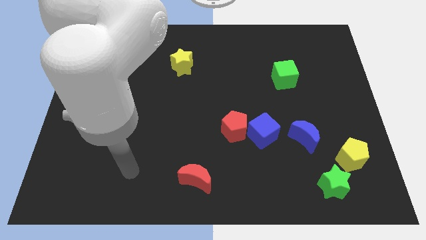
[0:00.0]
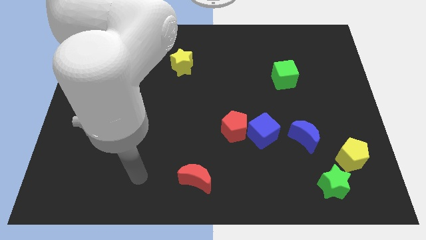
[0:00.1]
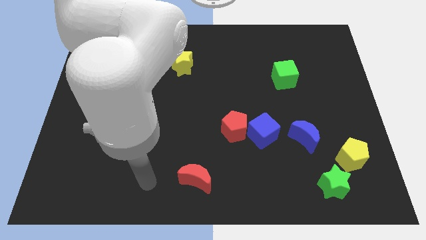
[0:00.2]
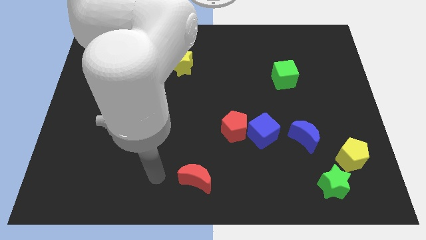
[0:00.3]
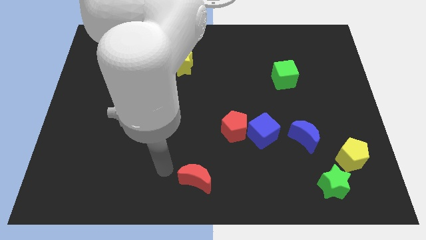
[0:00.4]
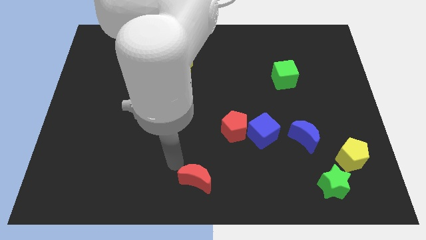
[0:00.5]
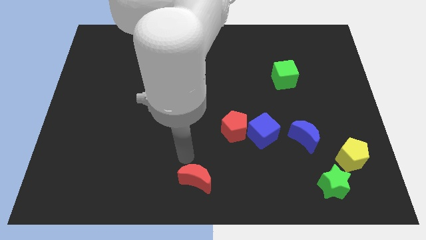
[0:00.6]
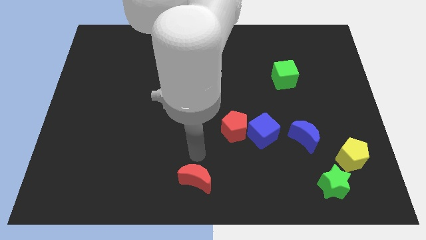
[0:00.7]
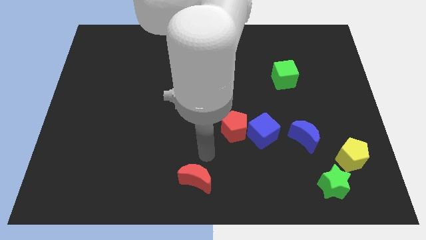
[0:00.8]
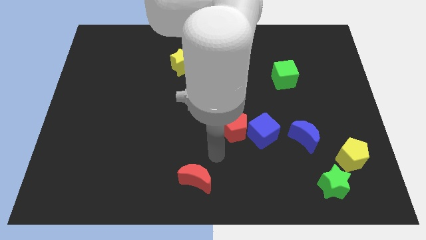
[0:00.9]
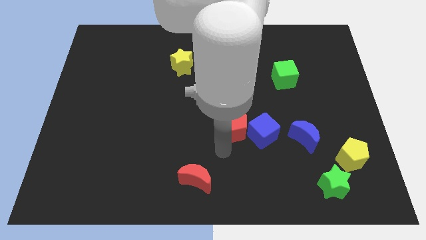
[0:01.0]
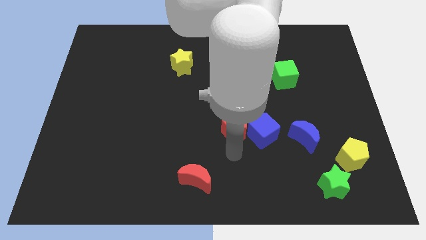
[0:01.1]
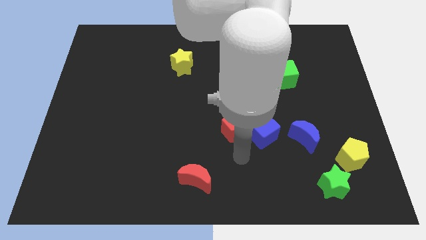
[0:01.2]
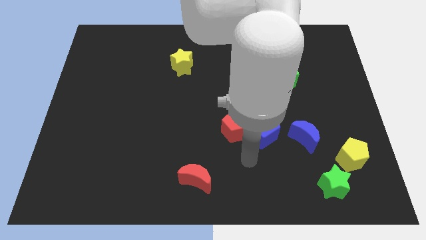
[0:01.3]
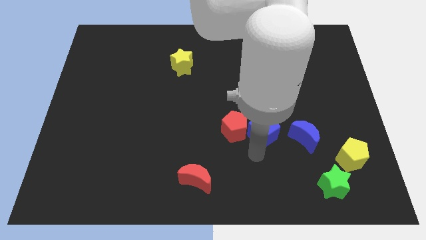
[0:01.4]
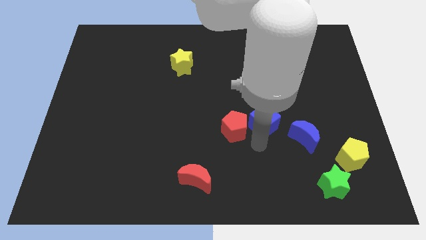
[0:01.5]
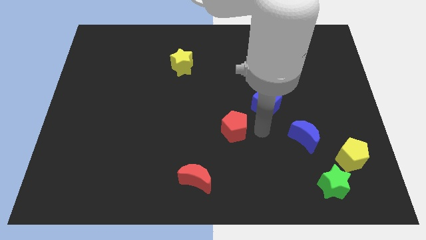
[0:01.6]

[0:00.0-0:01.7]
pull the red pentagon apart from the blue cube

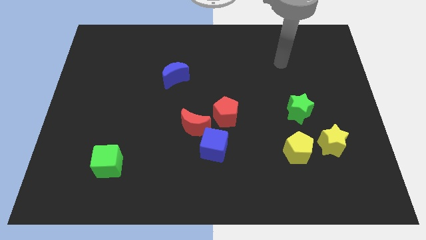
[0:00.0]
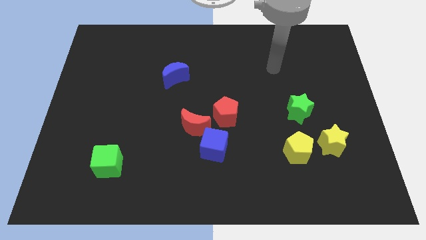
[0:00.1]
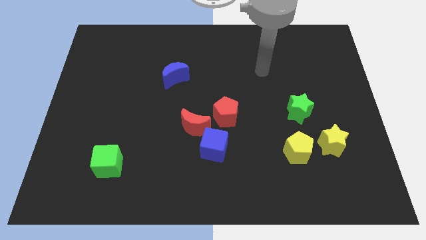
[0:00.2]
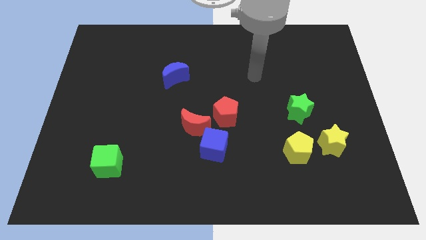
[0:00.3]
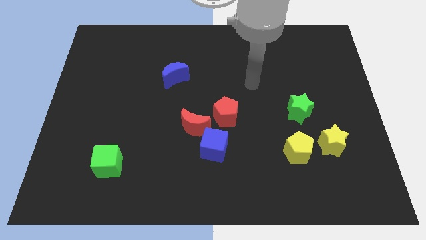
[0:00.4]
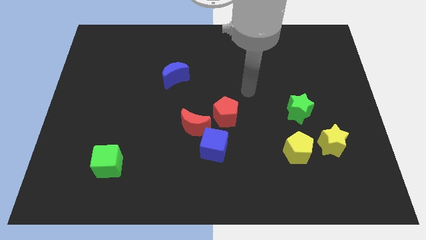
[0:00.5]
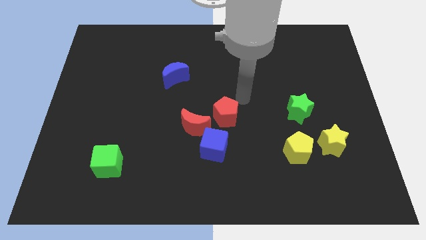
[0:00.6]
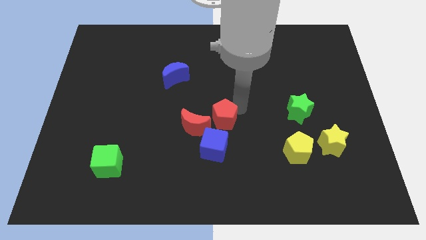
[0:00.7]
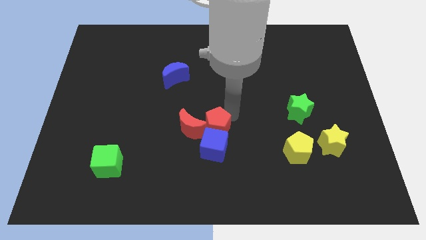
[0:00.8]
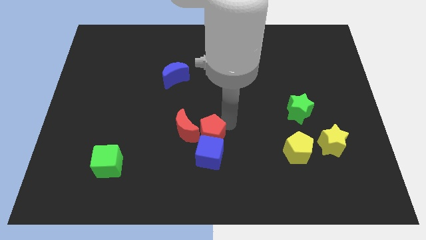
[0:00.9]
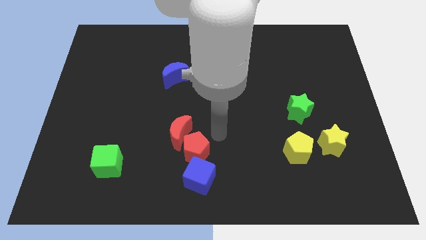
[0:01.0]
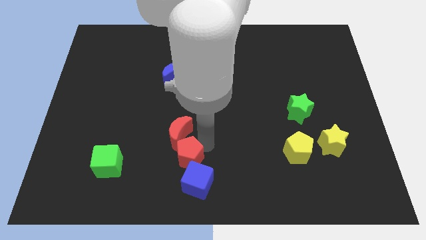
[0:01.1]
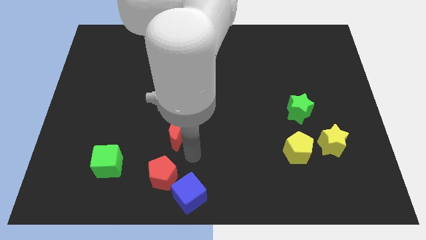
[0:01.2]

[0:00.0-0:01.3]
pull the red moon apart from the blue cube and red pentagon

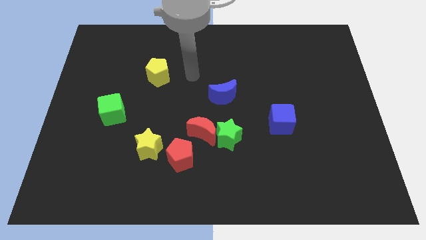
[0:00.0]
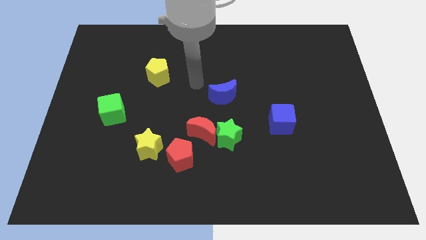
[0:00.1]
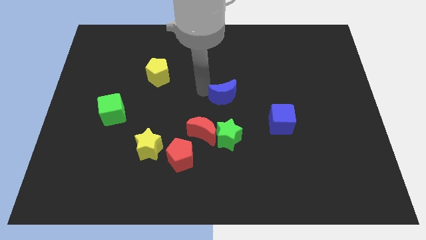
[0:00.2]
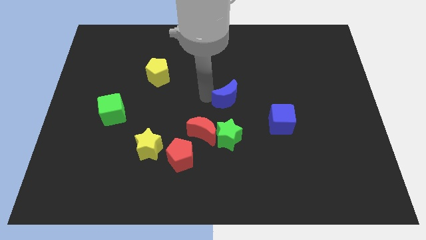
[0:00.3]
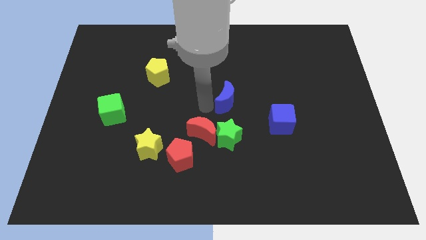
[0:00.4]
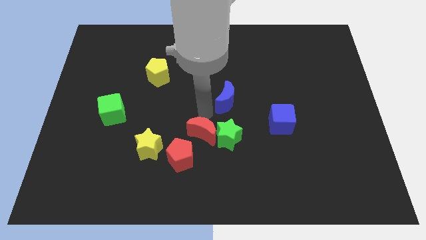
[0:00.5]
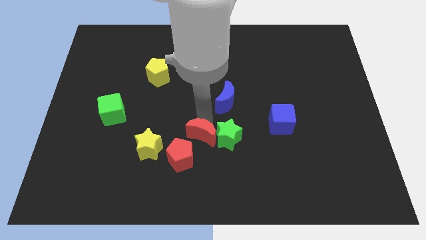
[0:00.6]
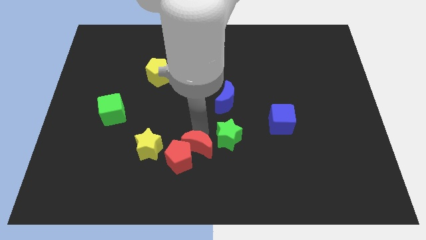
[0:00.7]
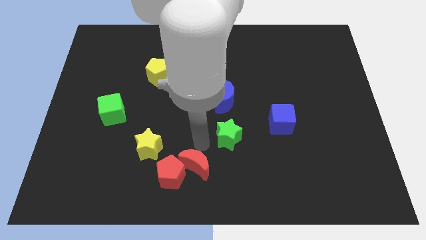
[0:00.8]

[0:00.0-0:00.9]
separate the green star from the red moon

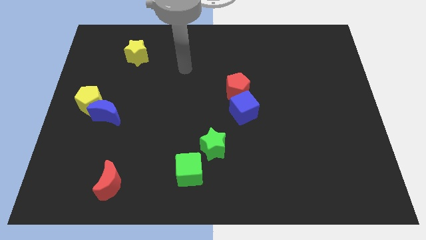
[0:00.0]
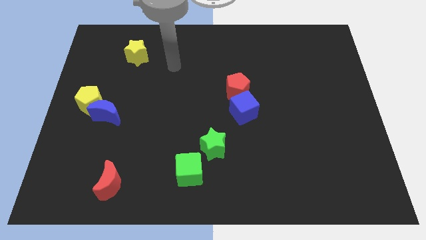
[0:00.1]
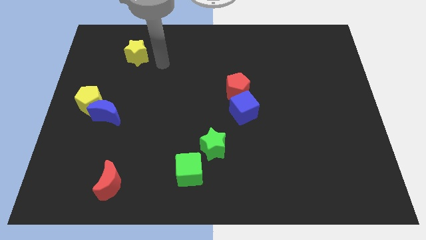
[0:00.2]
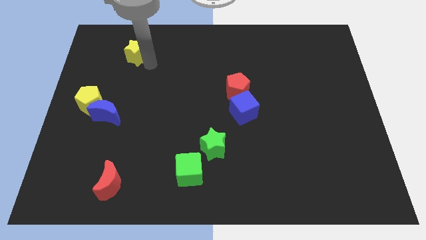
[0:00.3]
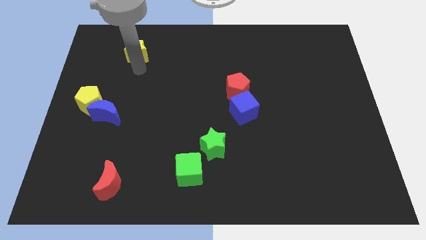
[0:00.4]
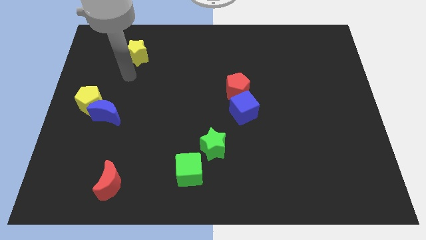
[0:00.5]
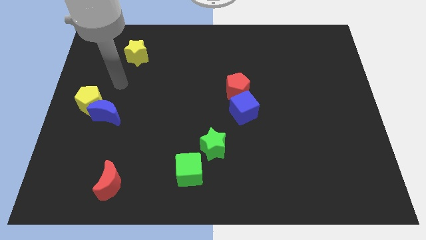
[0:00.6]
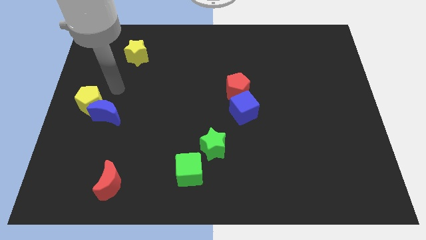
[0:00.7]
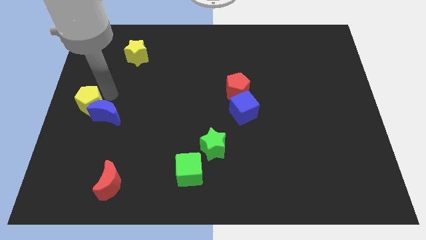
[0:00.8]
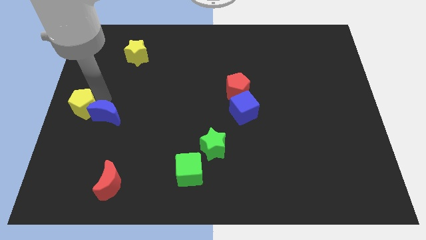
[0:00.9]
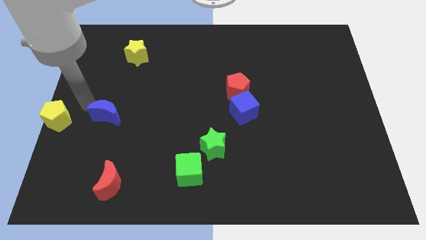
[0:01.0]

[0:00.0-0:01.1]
move the blue moon away from the yellow pentagon

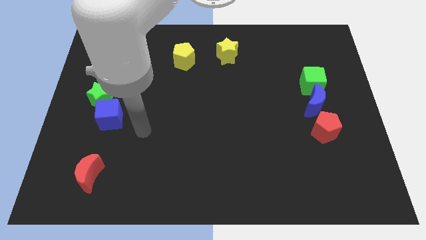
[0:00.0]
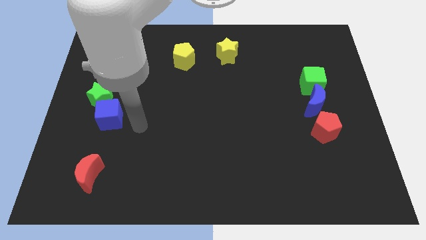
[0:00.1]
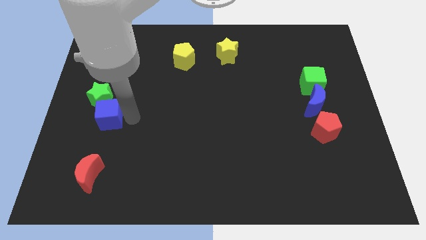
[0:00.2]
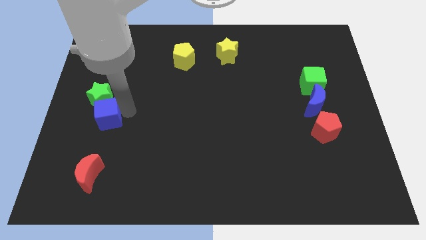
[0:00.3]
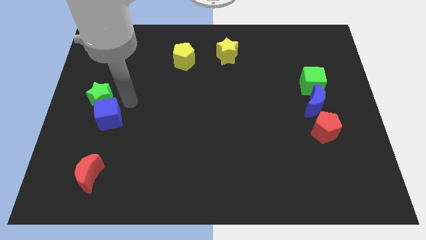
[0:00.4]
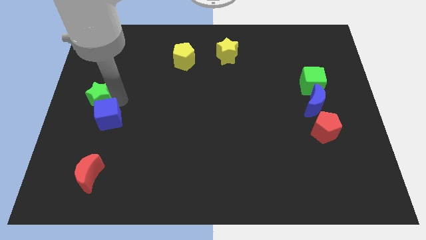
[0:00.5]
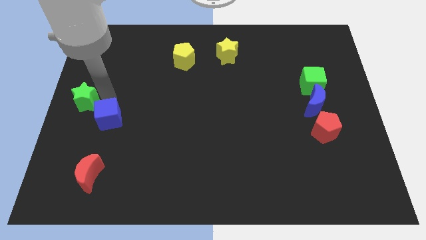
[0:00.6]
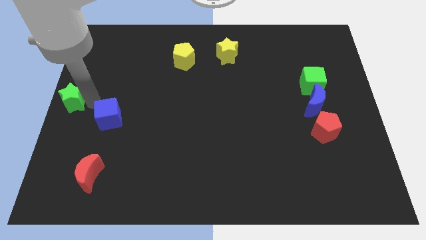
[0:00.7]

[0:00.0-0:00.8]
pull the blue cube apart from the green star

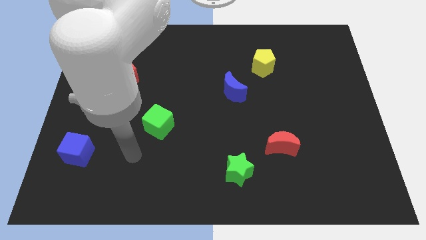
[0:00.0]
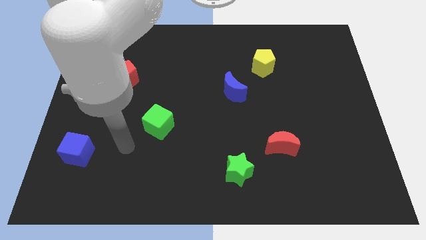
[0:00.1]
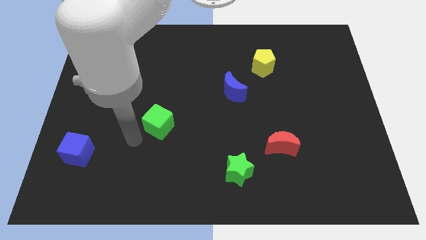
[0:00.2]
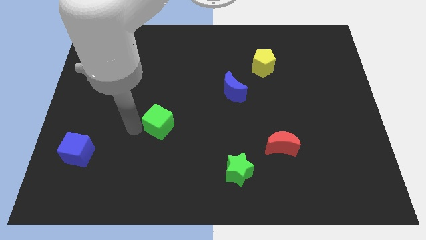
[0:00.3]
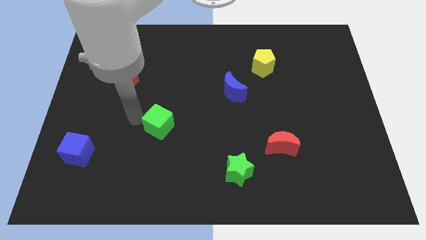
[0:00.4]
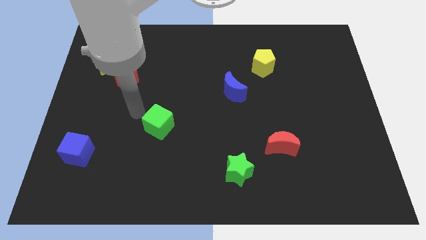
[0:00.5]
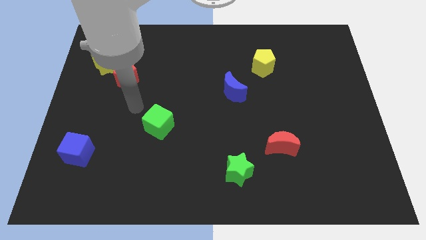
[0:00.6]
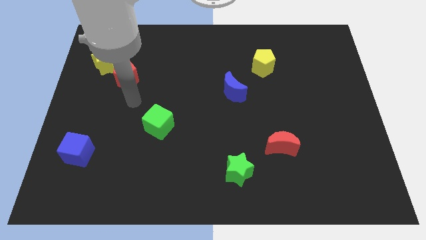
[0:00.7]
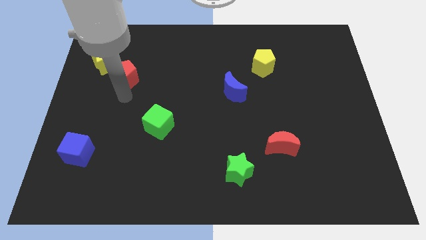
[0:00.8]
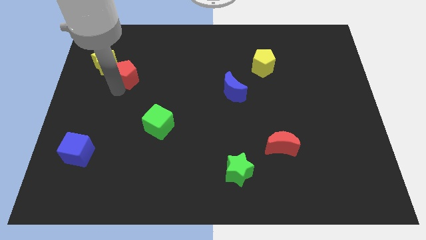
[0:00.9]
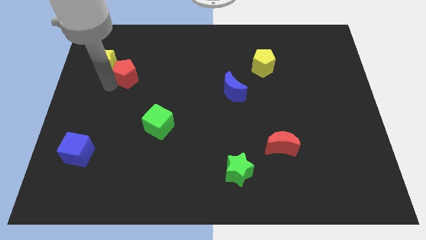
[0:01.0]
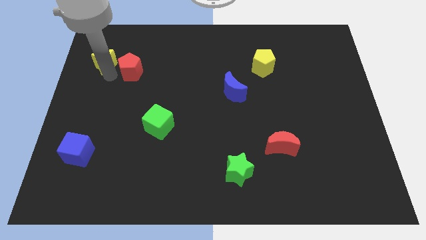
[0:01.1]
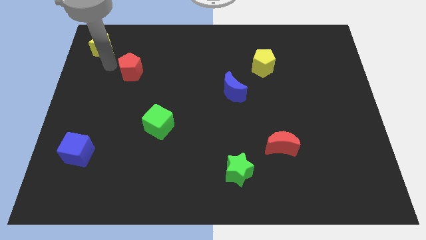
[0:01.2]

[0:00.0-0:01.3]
pull the red pentagon apart from the yellow star

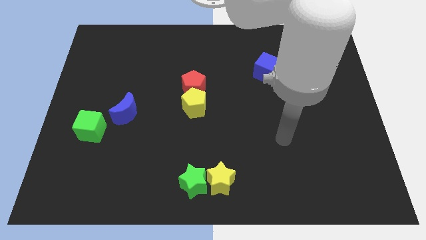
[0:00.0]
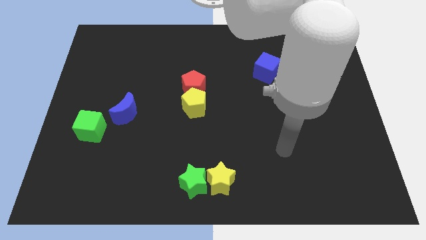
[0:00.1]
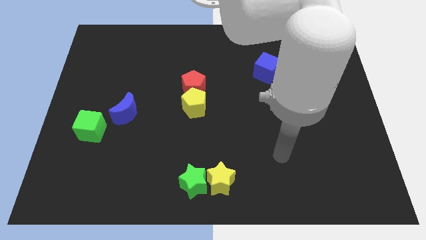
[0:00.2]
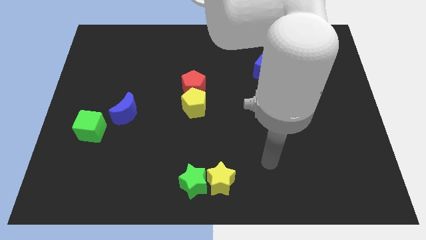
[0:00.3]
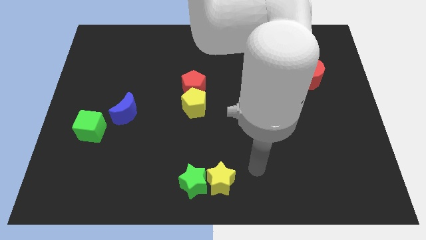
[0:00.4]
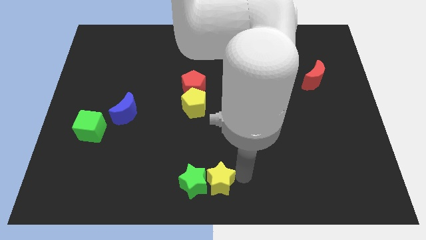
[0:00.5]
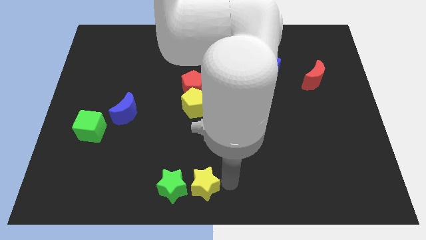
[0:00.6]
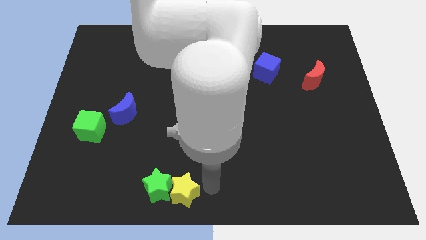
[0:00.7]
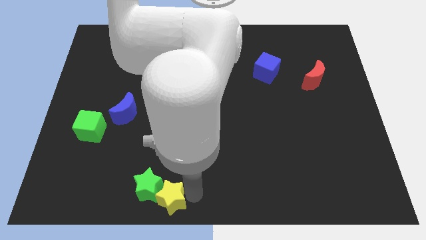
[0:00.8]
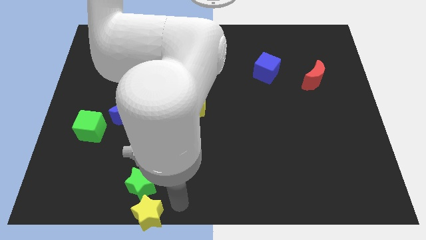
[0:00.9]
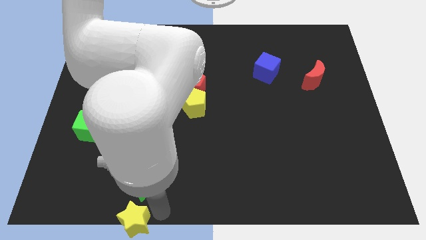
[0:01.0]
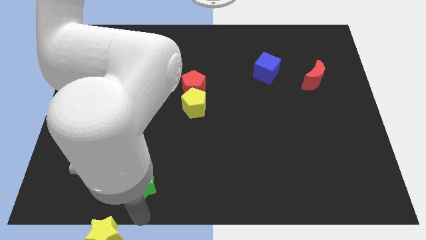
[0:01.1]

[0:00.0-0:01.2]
move the green star away from the yellow star

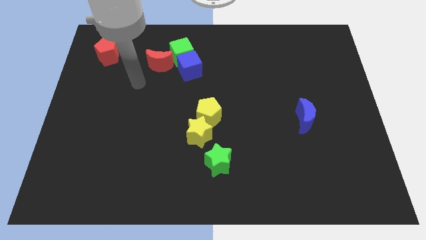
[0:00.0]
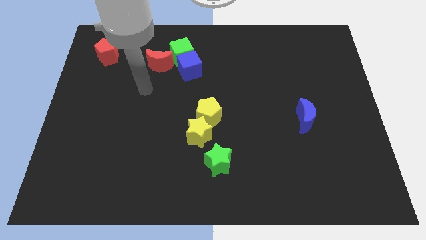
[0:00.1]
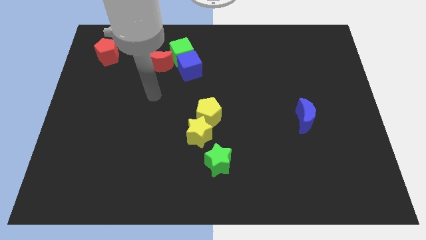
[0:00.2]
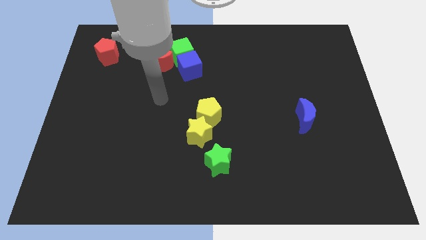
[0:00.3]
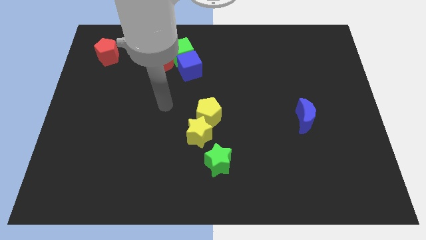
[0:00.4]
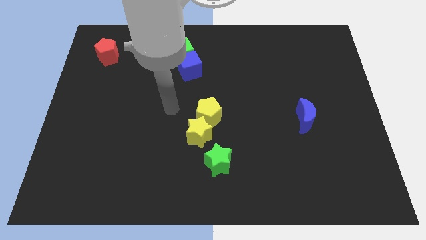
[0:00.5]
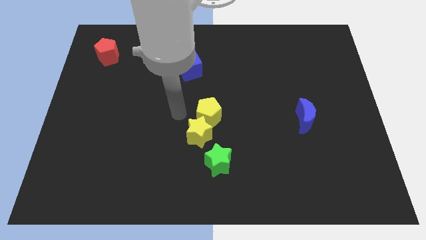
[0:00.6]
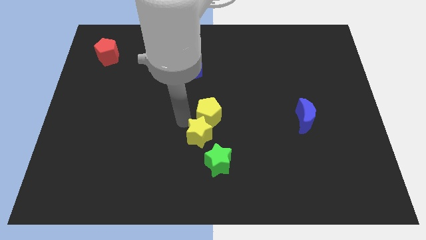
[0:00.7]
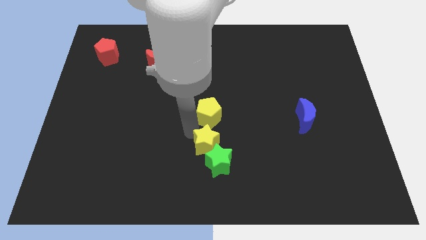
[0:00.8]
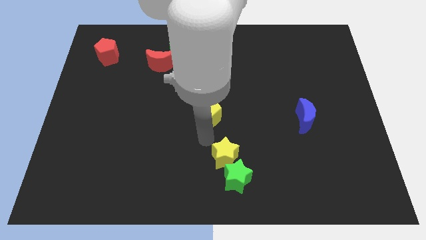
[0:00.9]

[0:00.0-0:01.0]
pull the yellow pentagon apart from the yellow star
